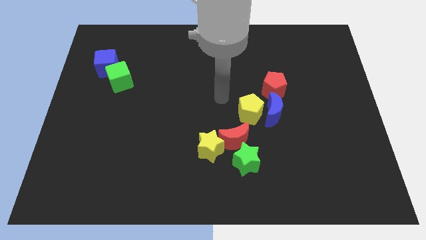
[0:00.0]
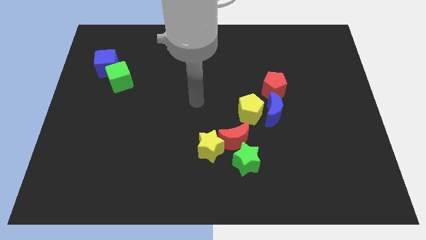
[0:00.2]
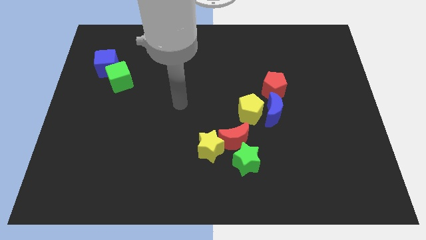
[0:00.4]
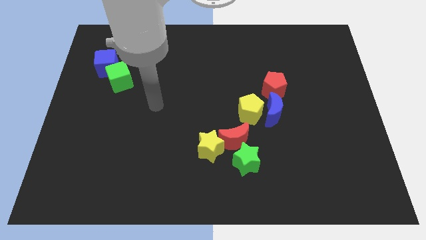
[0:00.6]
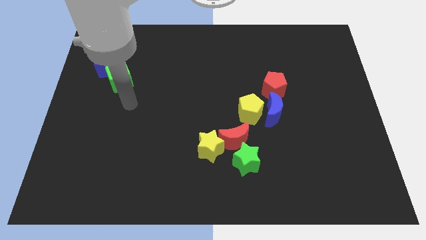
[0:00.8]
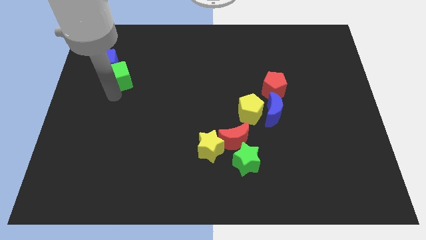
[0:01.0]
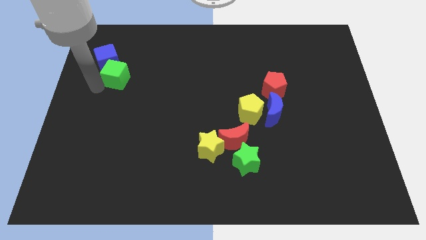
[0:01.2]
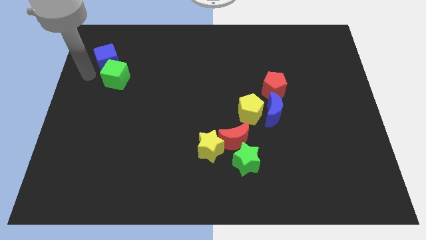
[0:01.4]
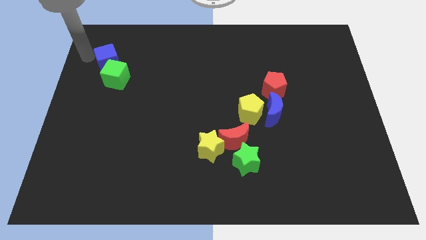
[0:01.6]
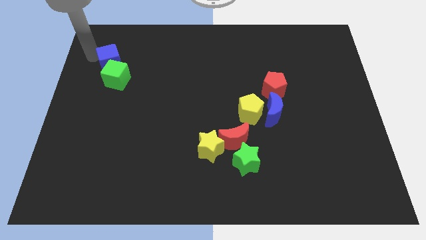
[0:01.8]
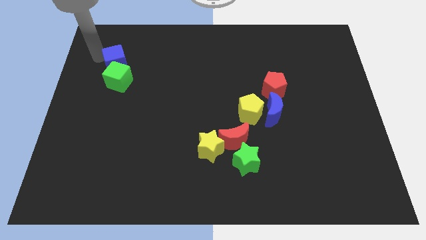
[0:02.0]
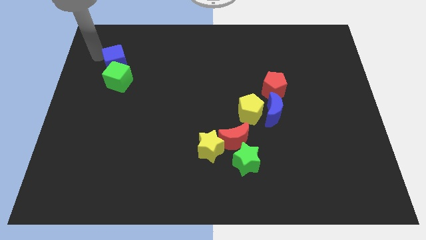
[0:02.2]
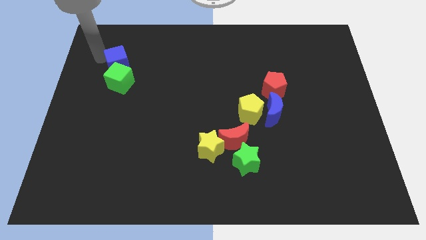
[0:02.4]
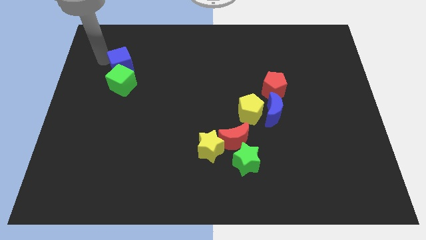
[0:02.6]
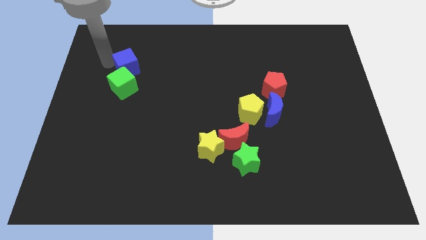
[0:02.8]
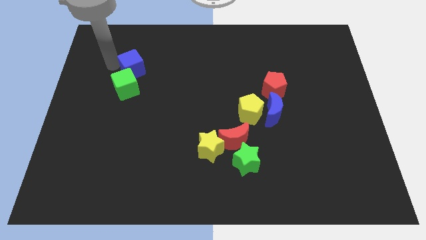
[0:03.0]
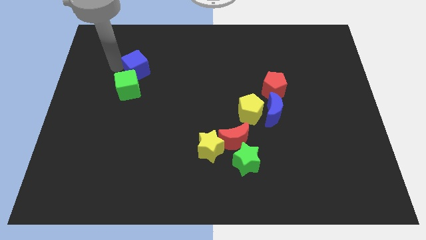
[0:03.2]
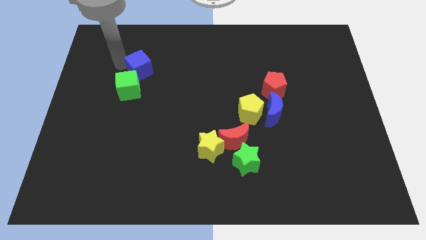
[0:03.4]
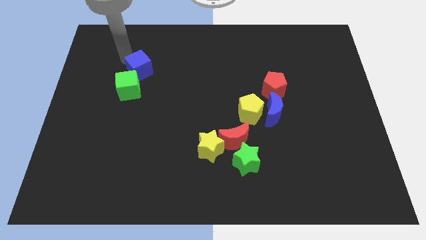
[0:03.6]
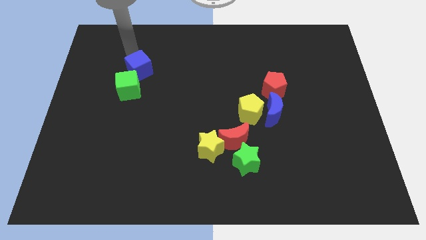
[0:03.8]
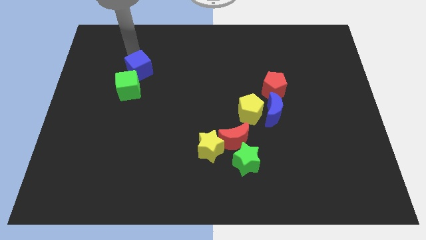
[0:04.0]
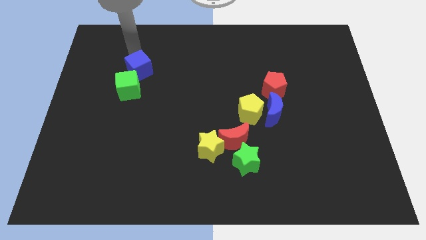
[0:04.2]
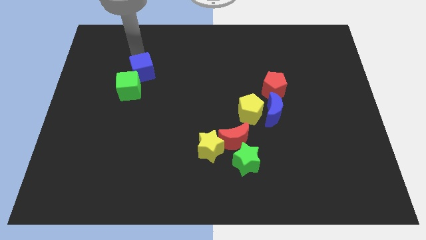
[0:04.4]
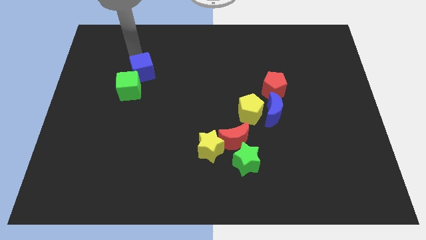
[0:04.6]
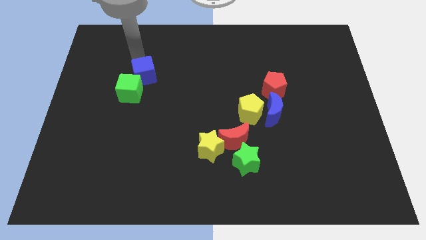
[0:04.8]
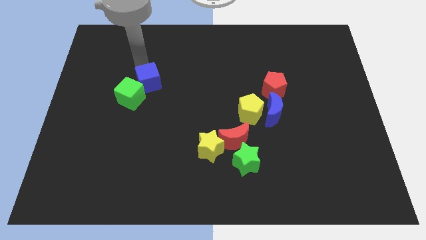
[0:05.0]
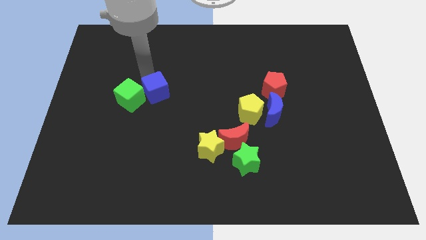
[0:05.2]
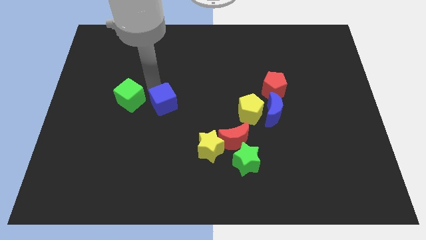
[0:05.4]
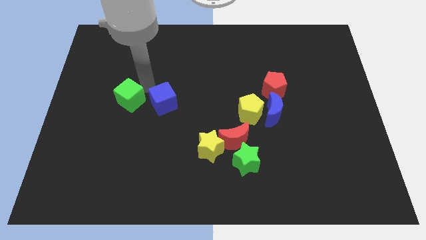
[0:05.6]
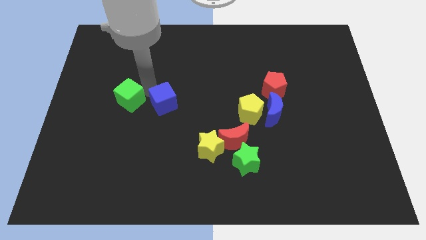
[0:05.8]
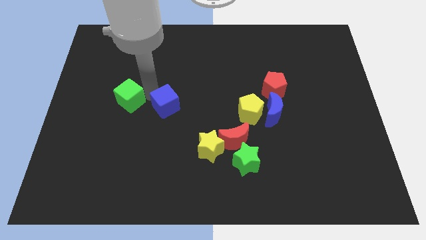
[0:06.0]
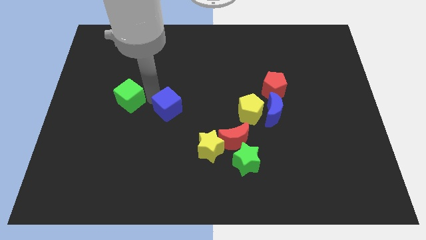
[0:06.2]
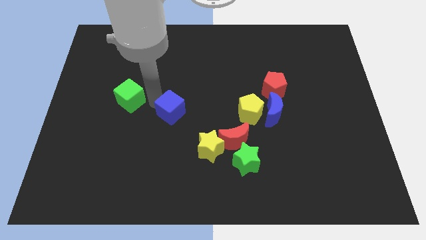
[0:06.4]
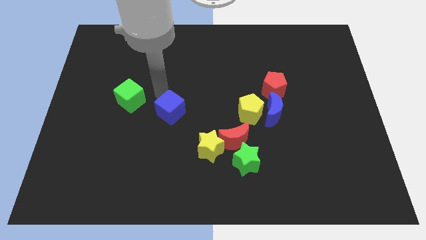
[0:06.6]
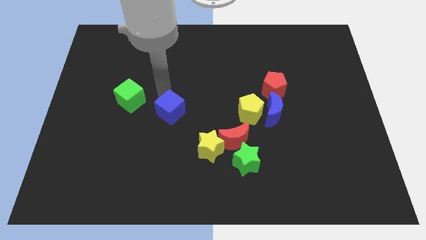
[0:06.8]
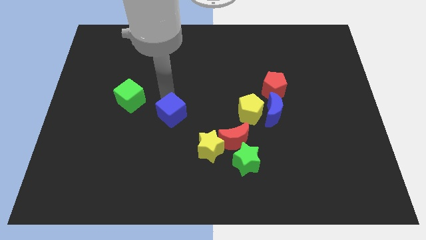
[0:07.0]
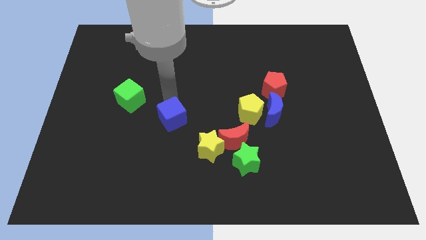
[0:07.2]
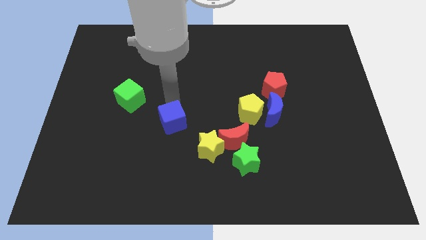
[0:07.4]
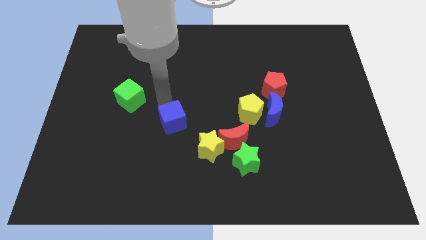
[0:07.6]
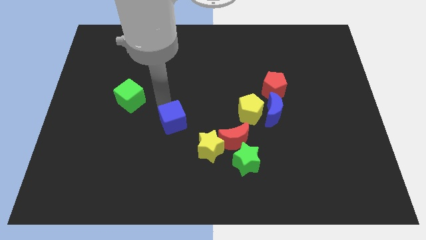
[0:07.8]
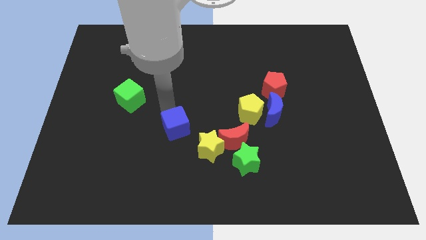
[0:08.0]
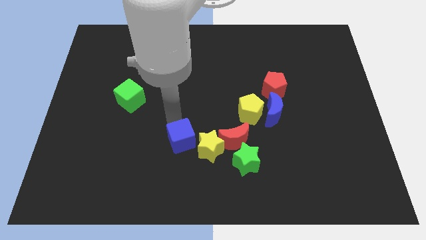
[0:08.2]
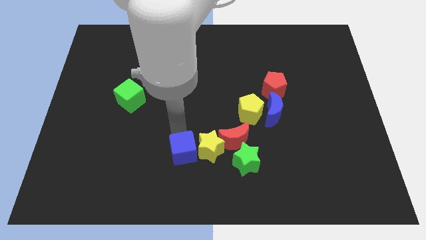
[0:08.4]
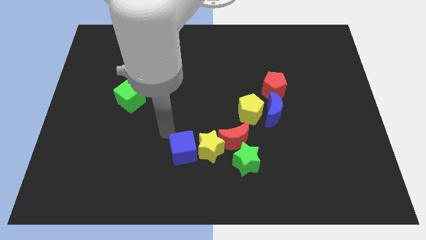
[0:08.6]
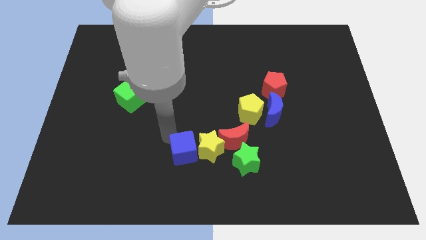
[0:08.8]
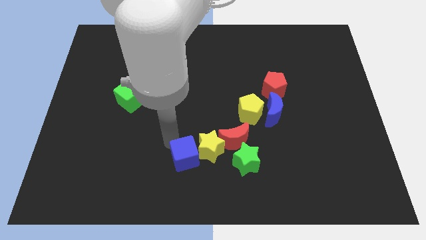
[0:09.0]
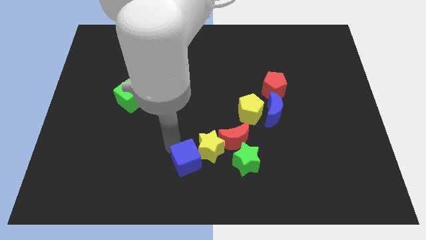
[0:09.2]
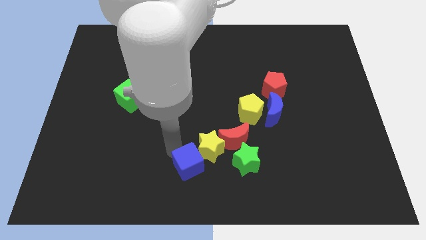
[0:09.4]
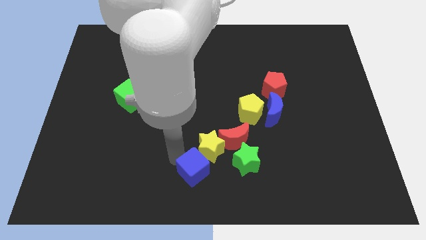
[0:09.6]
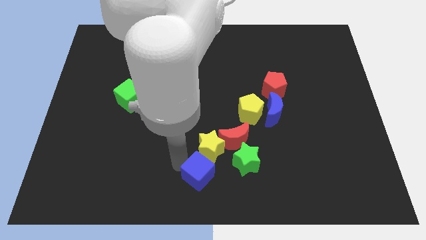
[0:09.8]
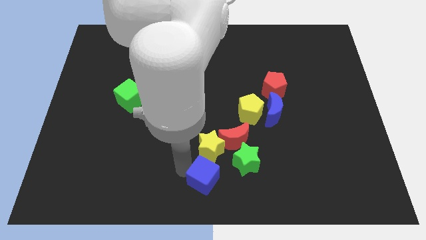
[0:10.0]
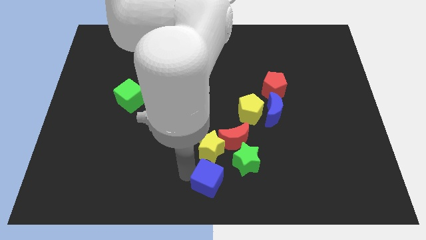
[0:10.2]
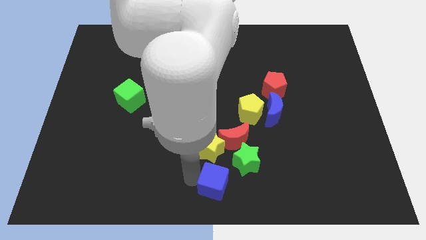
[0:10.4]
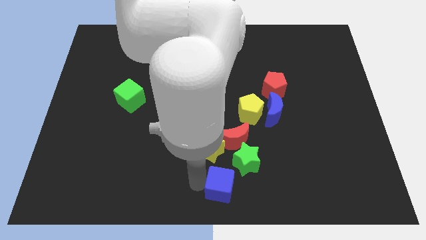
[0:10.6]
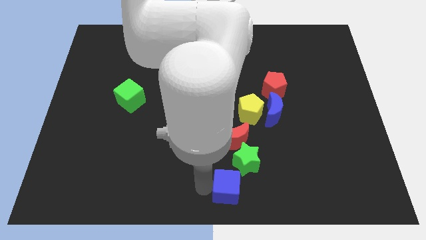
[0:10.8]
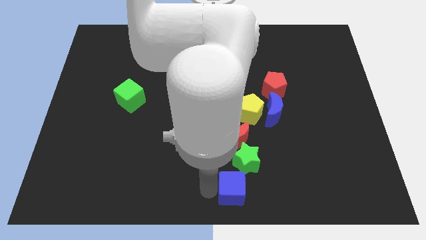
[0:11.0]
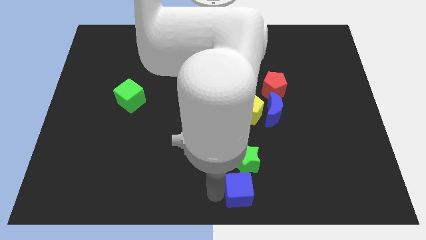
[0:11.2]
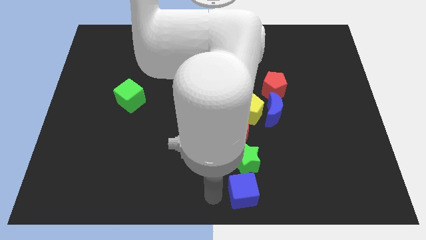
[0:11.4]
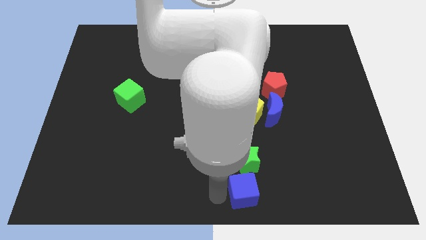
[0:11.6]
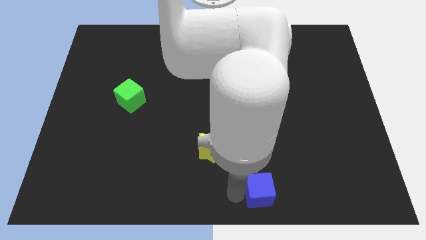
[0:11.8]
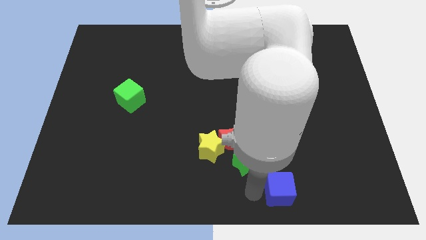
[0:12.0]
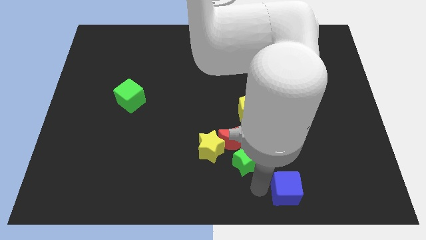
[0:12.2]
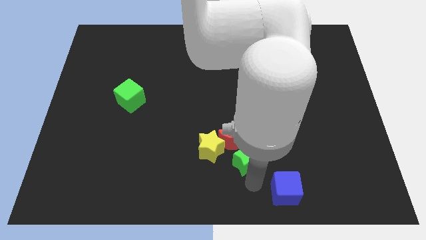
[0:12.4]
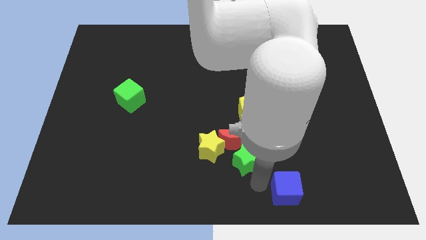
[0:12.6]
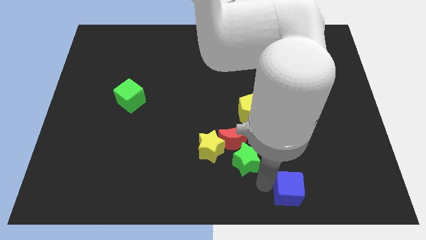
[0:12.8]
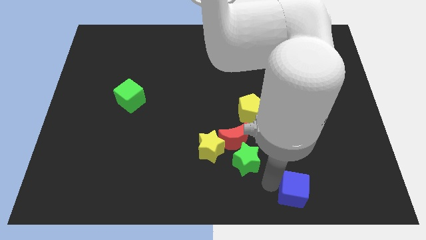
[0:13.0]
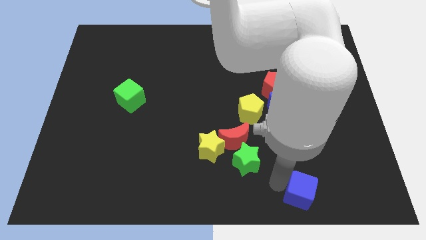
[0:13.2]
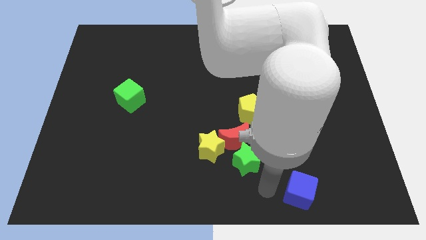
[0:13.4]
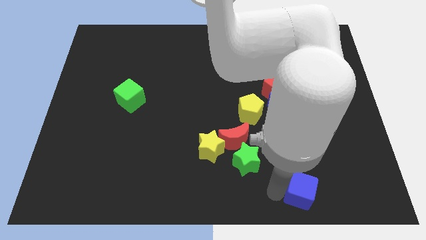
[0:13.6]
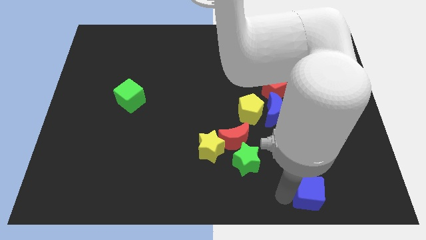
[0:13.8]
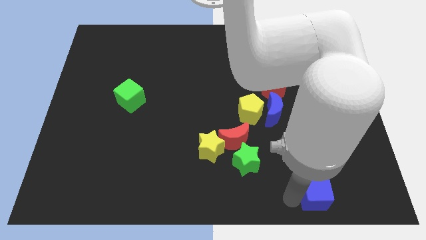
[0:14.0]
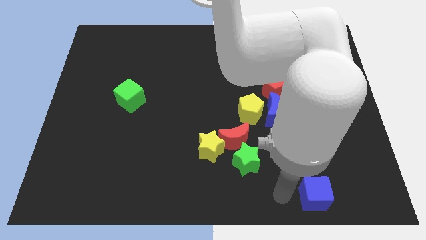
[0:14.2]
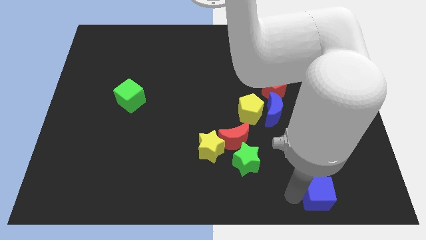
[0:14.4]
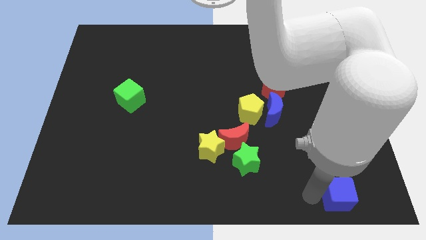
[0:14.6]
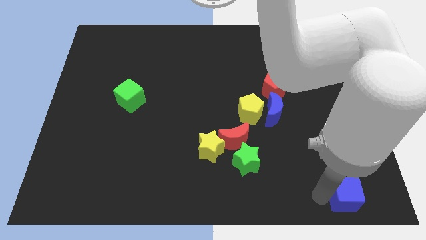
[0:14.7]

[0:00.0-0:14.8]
move the blue cube to the lower right corner
